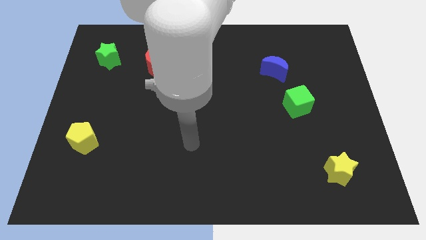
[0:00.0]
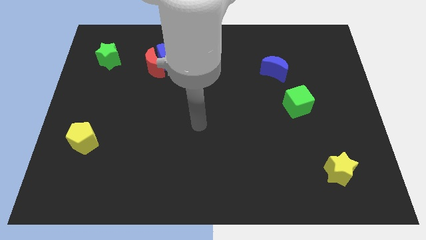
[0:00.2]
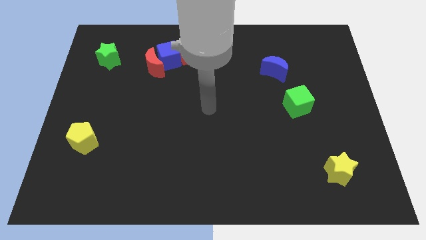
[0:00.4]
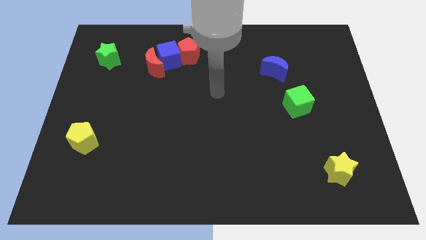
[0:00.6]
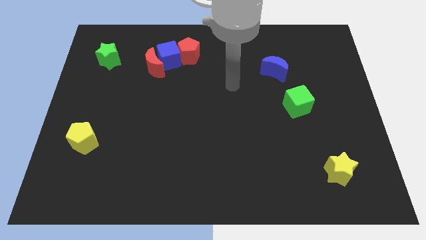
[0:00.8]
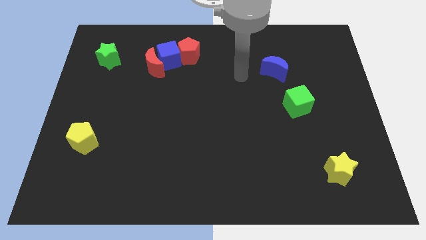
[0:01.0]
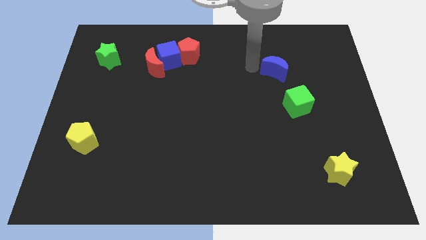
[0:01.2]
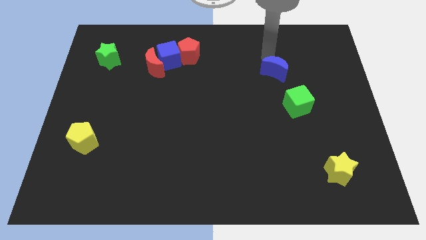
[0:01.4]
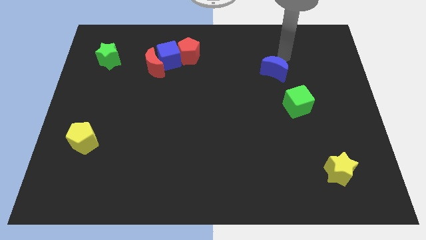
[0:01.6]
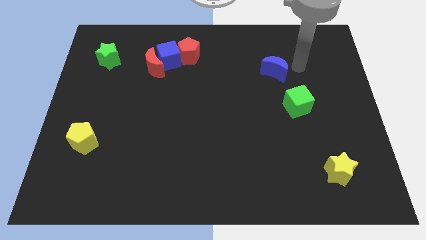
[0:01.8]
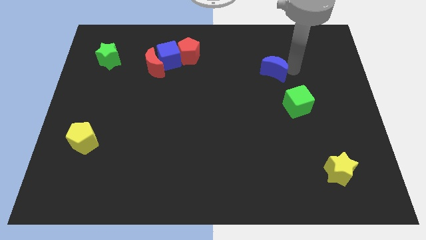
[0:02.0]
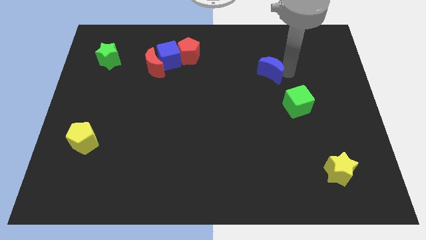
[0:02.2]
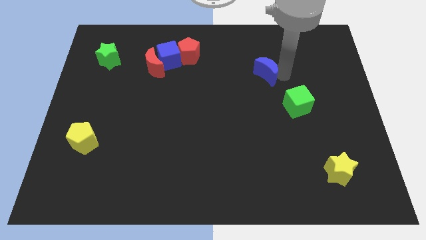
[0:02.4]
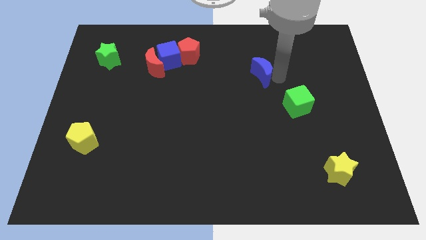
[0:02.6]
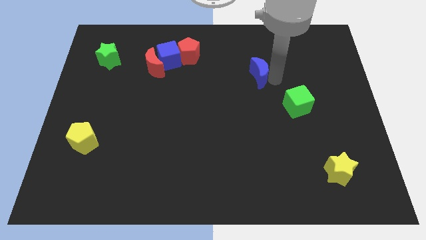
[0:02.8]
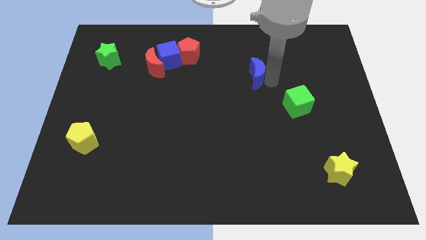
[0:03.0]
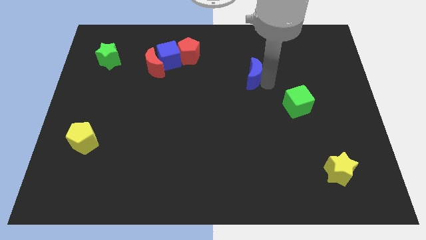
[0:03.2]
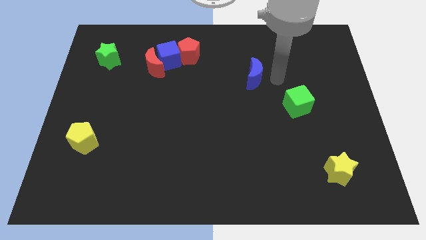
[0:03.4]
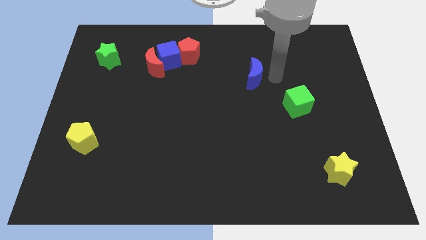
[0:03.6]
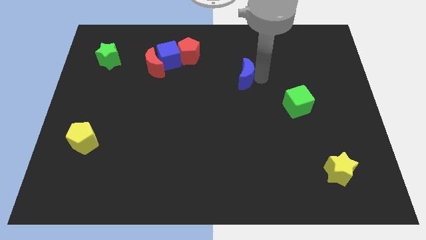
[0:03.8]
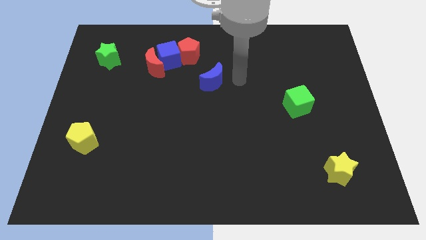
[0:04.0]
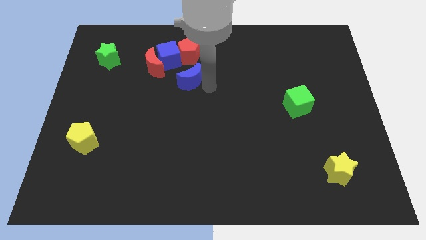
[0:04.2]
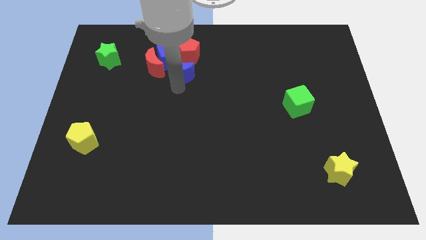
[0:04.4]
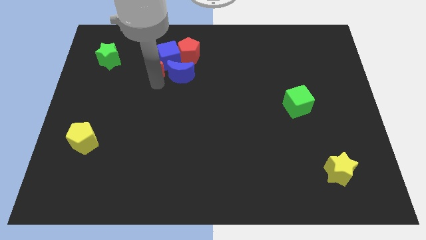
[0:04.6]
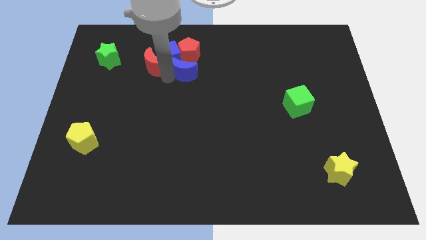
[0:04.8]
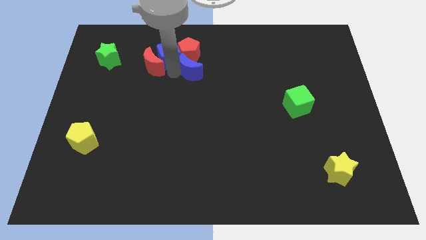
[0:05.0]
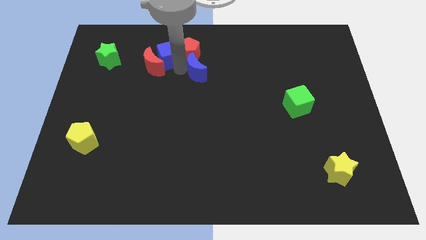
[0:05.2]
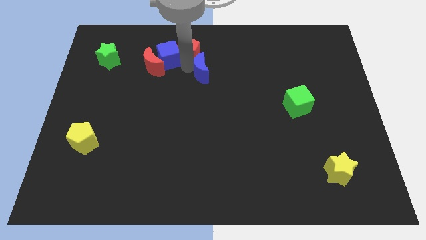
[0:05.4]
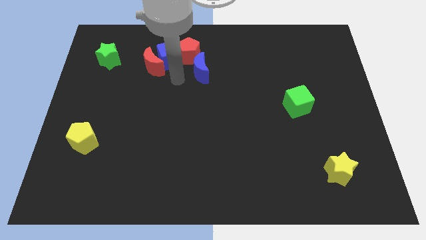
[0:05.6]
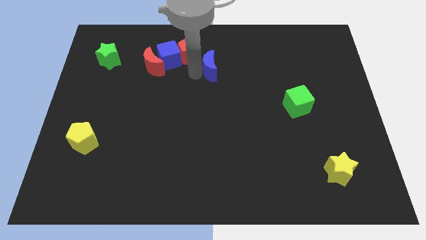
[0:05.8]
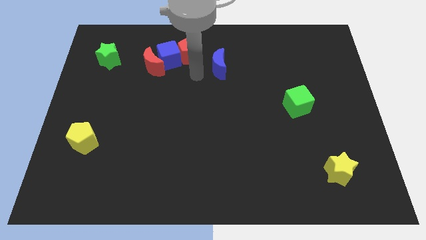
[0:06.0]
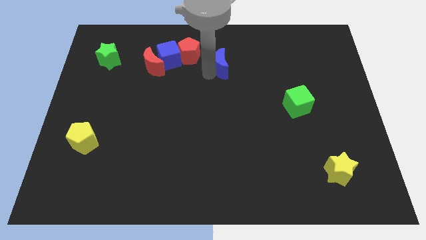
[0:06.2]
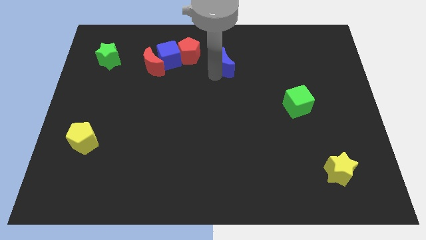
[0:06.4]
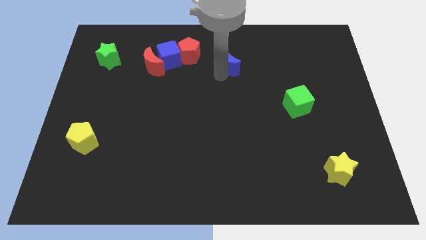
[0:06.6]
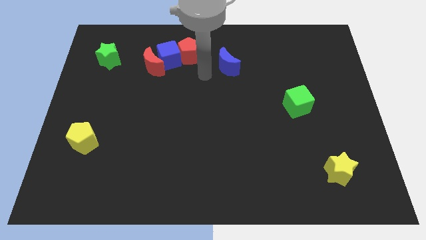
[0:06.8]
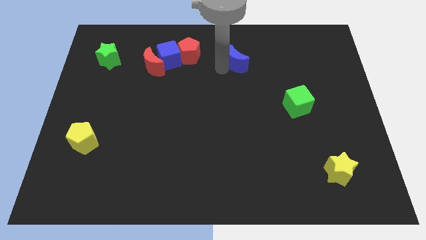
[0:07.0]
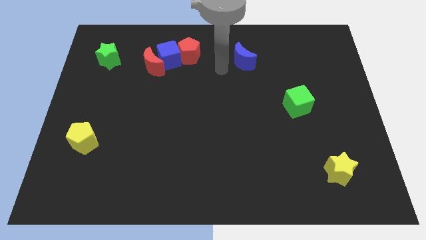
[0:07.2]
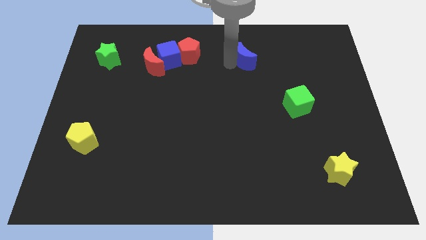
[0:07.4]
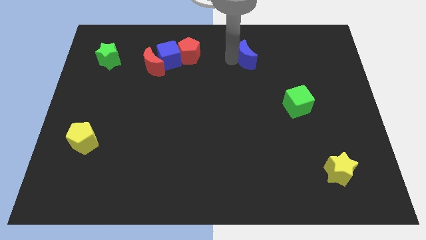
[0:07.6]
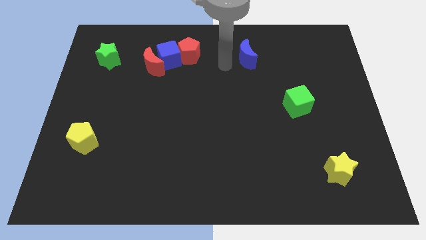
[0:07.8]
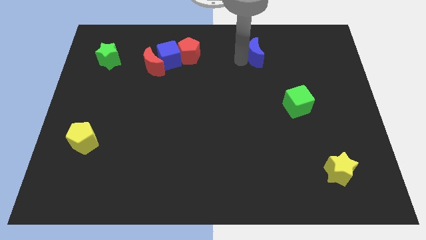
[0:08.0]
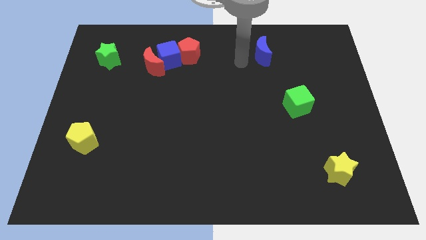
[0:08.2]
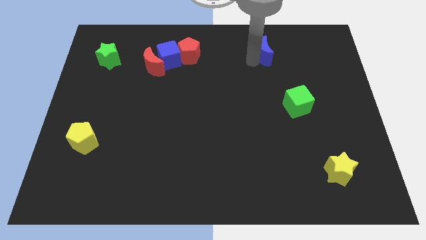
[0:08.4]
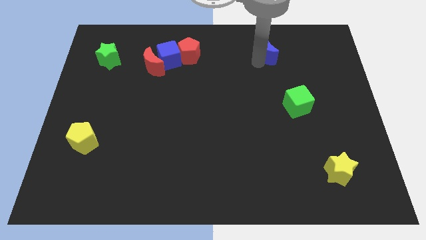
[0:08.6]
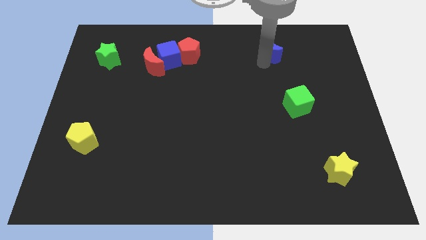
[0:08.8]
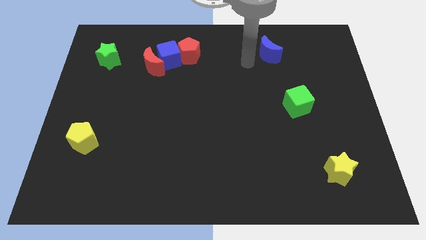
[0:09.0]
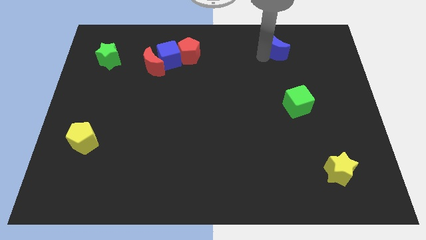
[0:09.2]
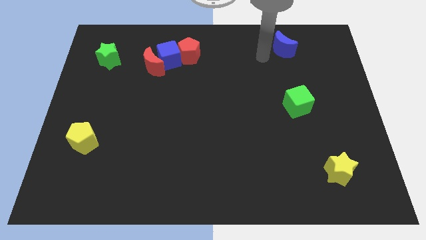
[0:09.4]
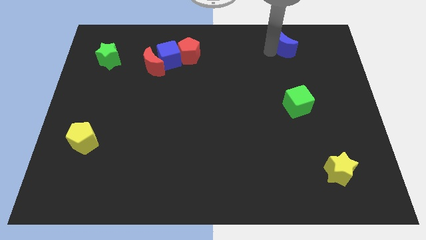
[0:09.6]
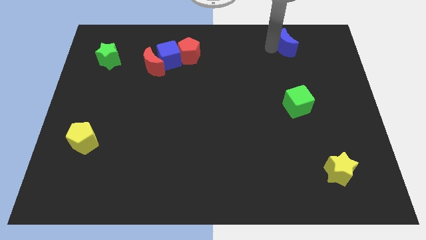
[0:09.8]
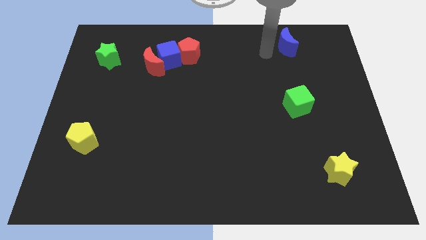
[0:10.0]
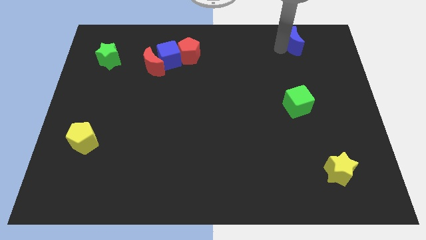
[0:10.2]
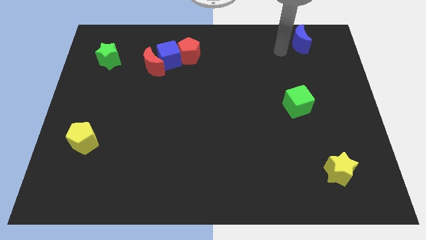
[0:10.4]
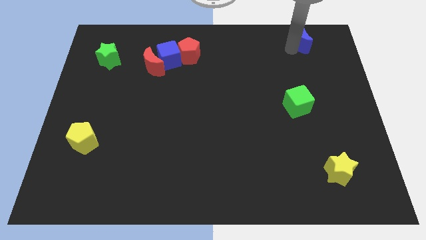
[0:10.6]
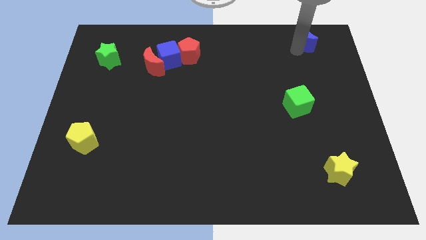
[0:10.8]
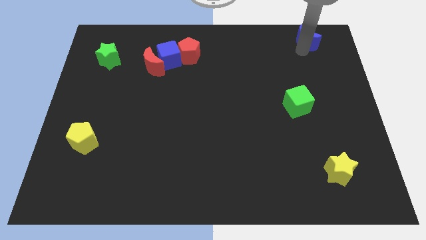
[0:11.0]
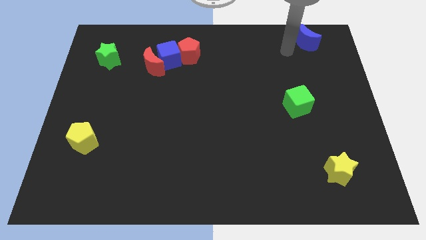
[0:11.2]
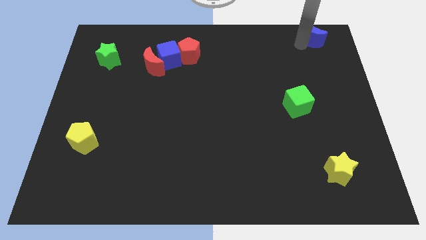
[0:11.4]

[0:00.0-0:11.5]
put the blue moon to the top right

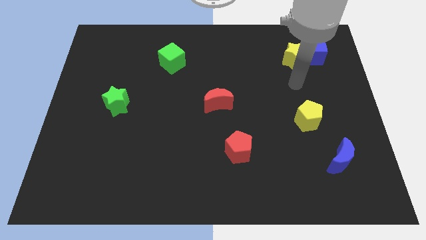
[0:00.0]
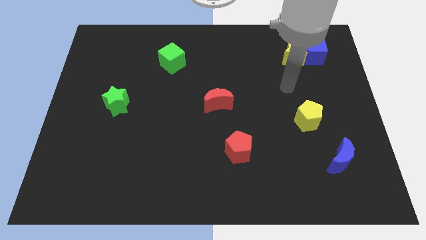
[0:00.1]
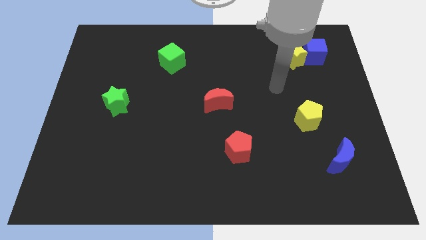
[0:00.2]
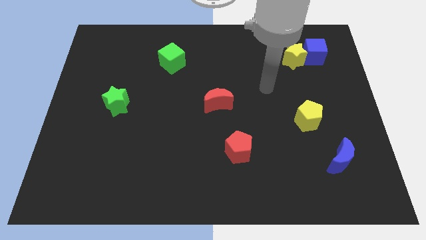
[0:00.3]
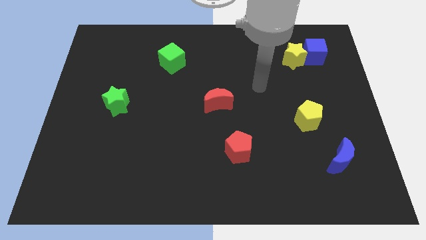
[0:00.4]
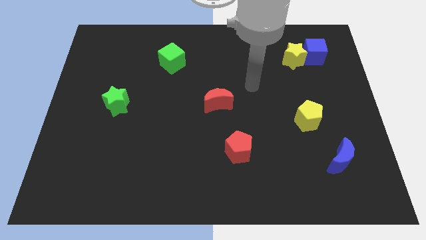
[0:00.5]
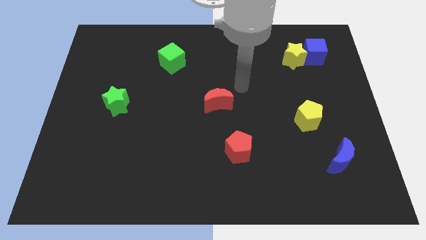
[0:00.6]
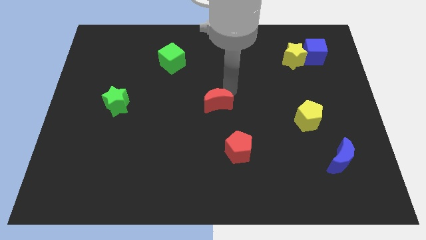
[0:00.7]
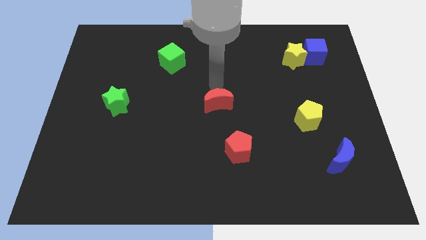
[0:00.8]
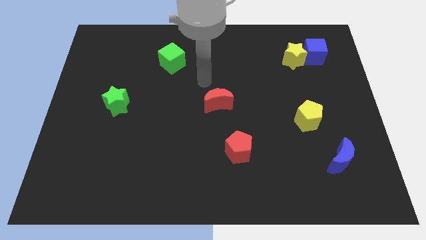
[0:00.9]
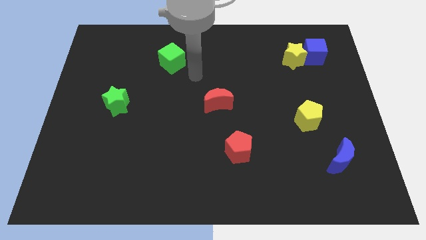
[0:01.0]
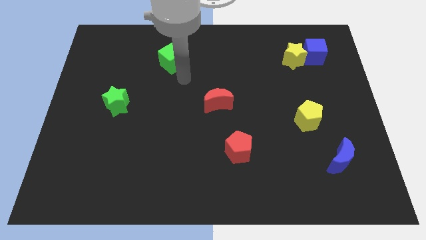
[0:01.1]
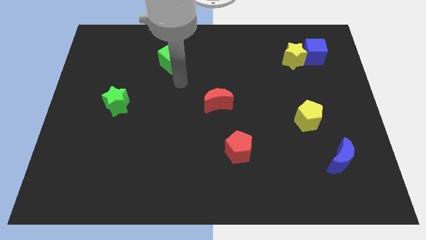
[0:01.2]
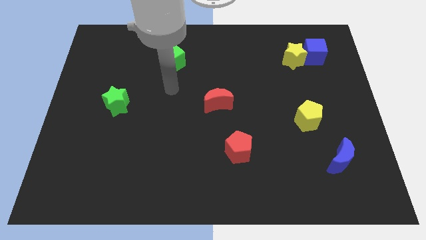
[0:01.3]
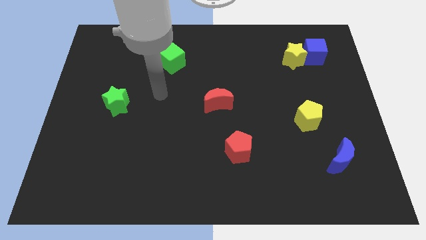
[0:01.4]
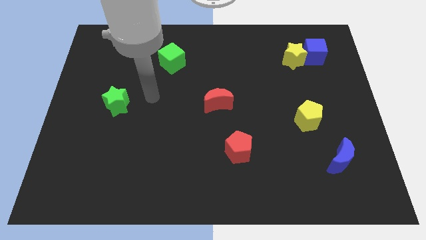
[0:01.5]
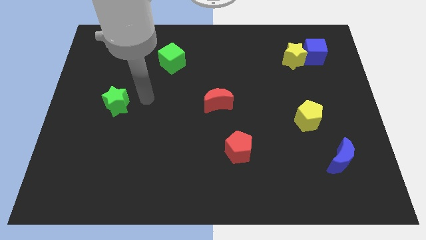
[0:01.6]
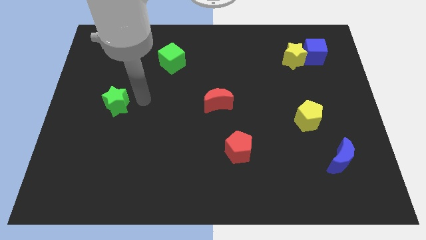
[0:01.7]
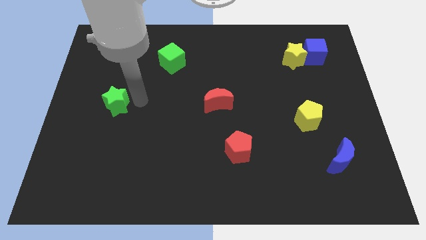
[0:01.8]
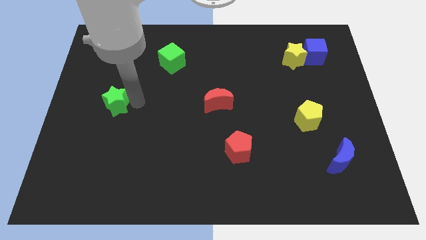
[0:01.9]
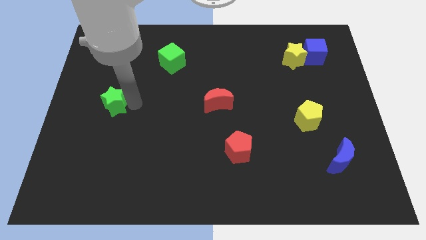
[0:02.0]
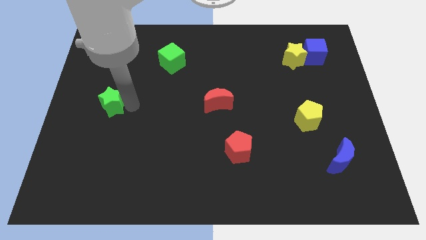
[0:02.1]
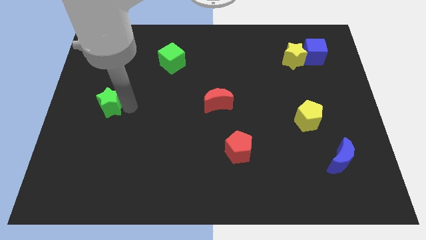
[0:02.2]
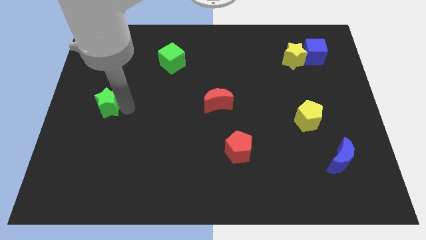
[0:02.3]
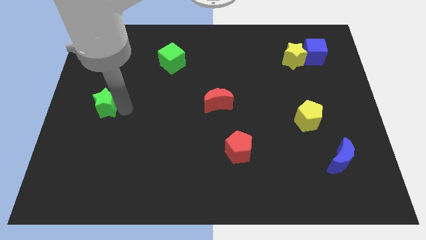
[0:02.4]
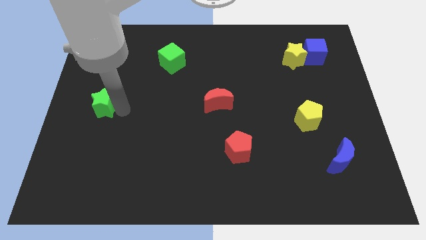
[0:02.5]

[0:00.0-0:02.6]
push the green star to the left side of the board
